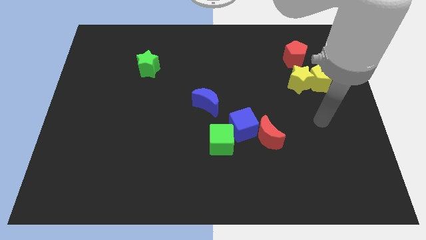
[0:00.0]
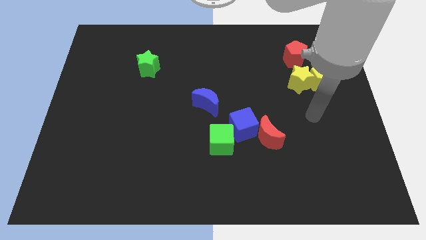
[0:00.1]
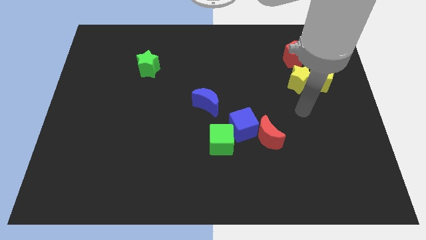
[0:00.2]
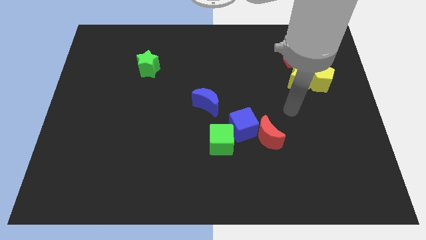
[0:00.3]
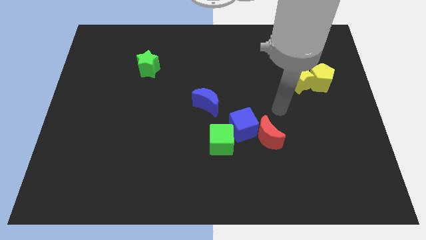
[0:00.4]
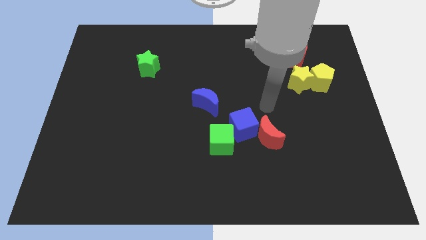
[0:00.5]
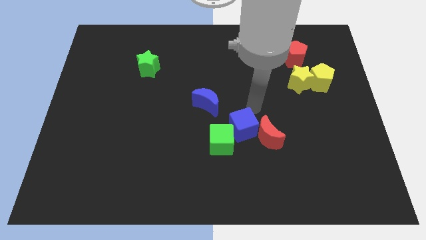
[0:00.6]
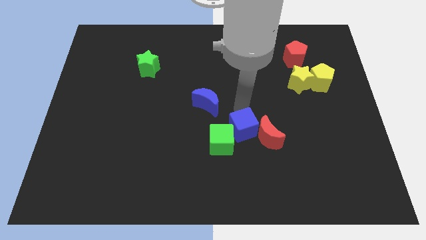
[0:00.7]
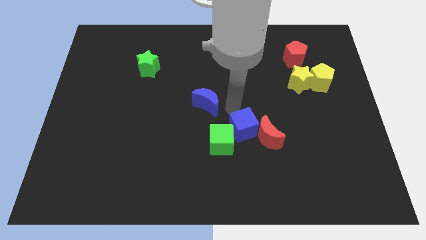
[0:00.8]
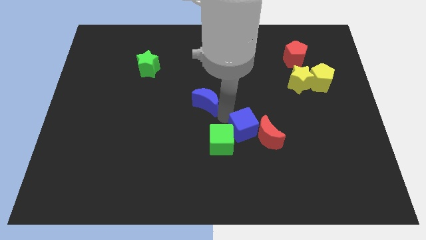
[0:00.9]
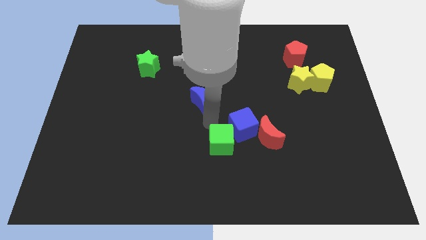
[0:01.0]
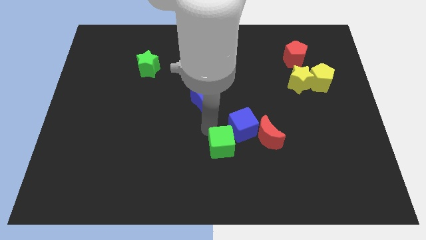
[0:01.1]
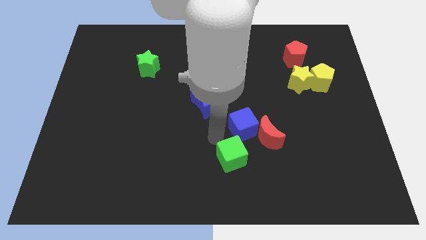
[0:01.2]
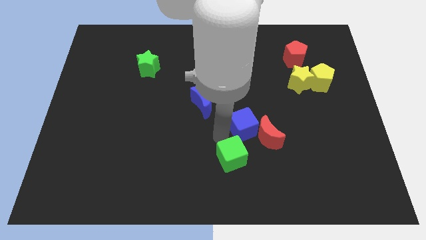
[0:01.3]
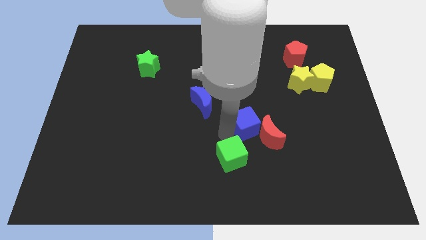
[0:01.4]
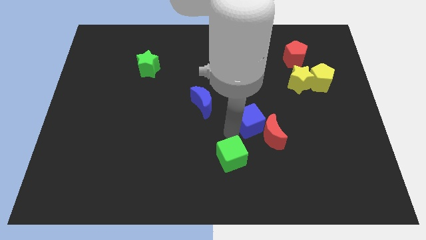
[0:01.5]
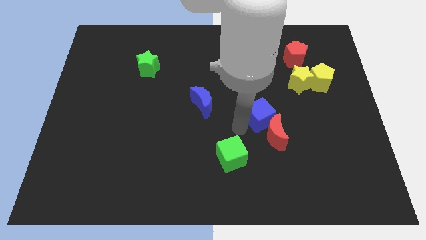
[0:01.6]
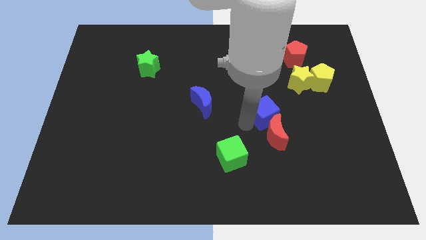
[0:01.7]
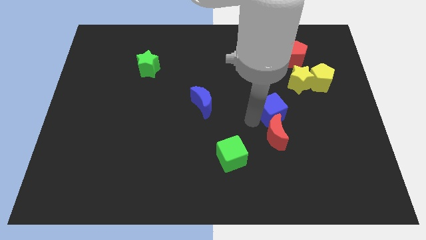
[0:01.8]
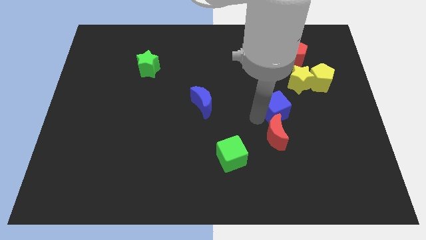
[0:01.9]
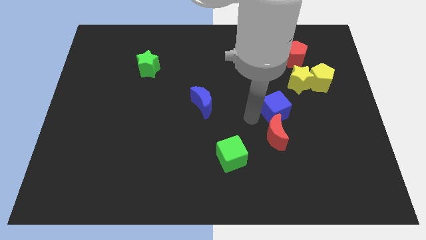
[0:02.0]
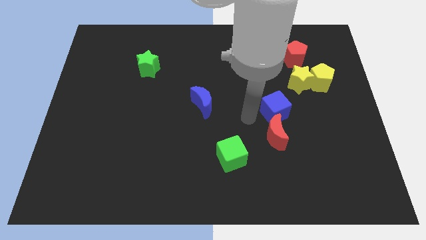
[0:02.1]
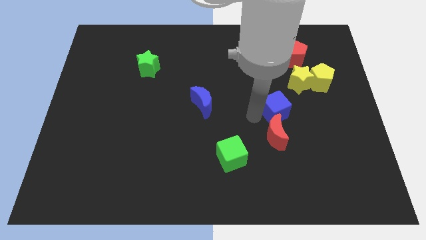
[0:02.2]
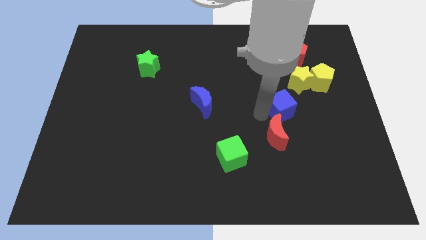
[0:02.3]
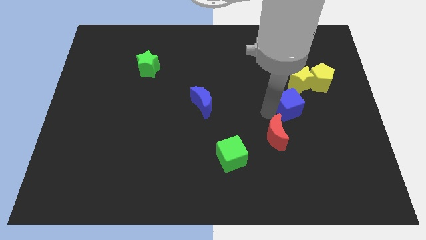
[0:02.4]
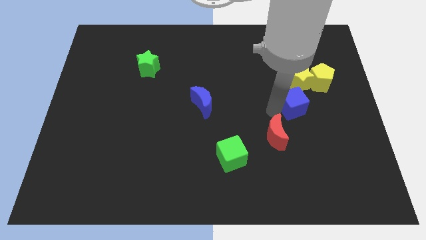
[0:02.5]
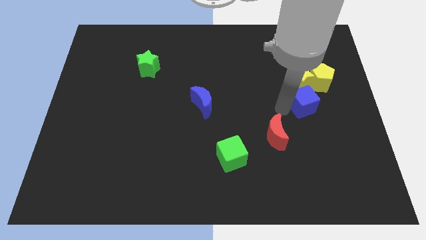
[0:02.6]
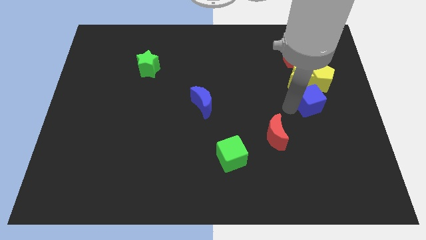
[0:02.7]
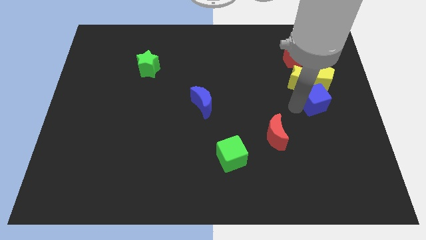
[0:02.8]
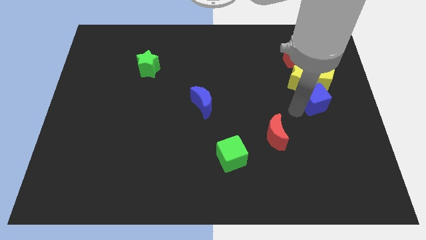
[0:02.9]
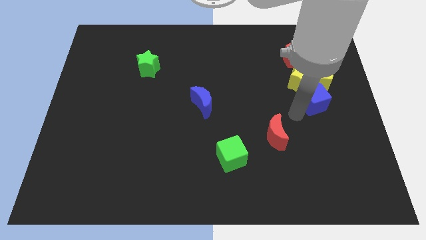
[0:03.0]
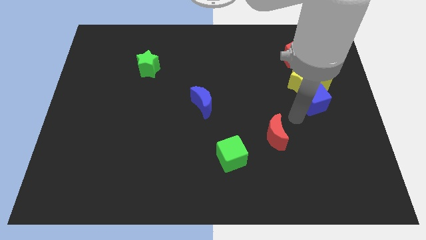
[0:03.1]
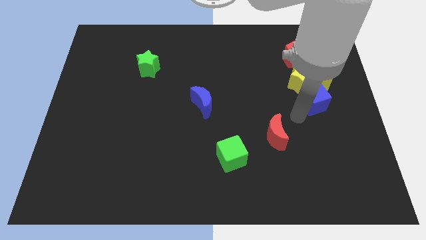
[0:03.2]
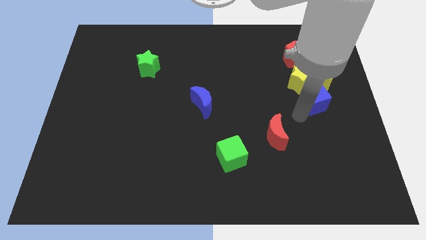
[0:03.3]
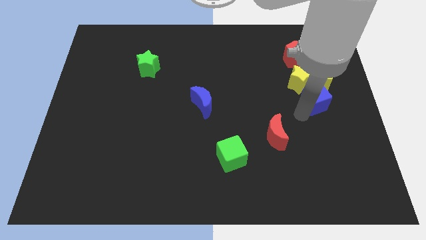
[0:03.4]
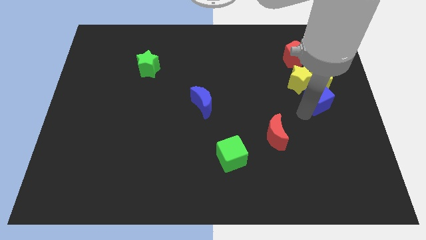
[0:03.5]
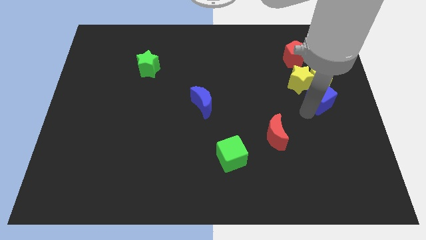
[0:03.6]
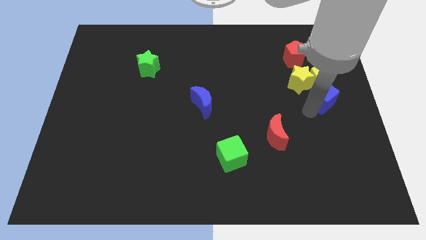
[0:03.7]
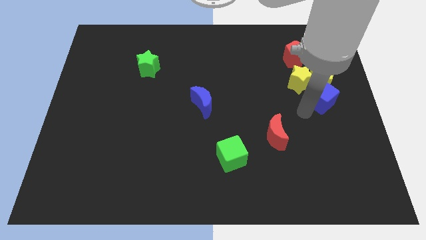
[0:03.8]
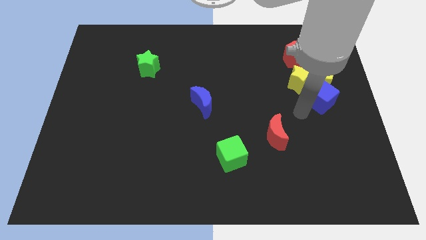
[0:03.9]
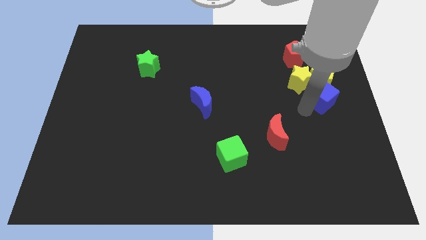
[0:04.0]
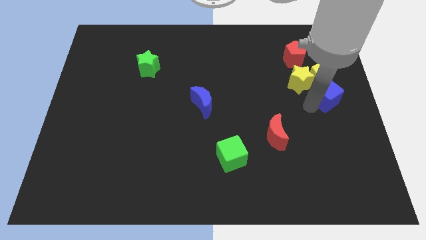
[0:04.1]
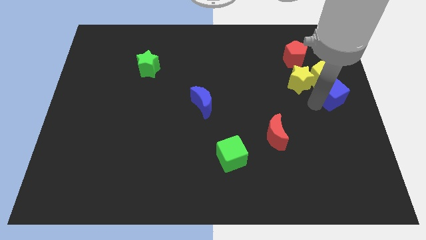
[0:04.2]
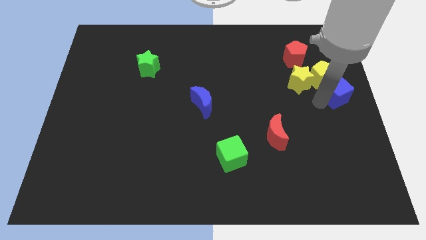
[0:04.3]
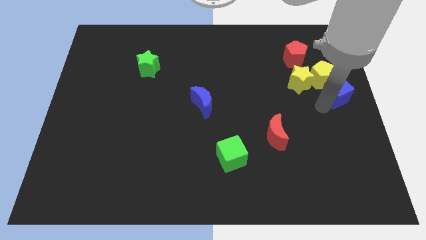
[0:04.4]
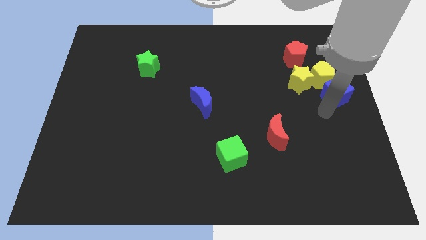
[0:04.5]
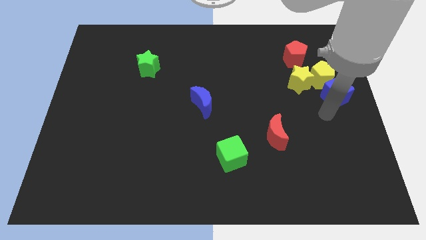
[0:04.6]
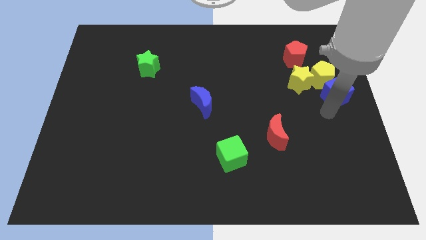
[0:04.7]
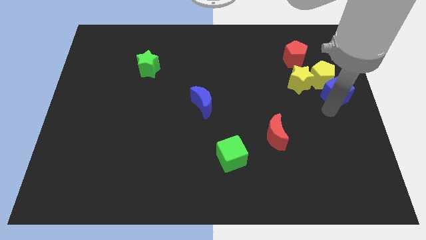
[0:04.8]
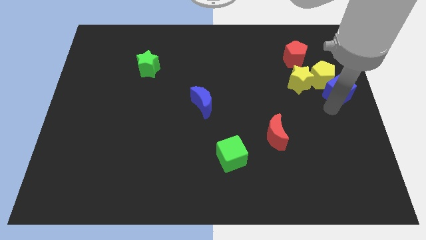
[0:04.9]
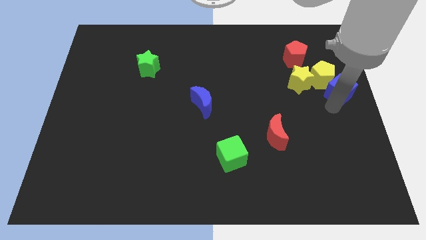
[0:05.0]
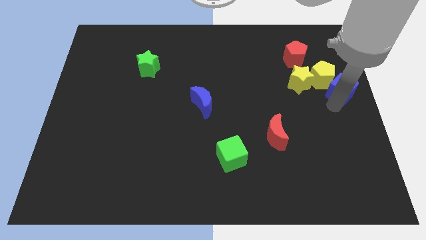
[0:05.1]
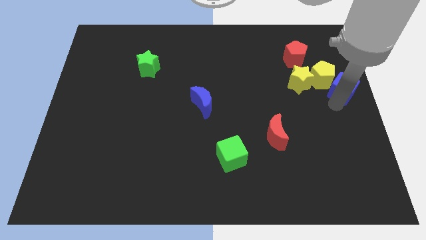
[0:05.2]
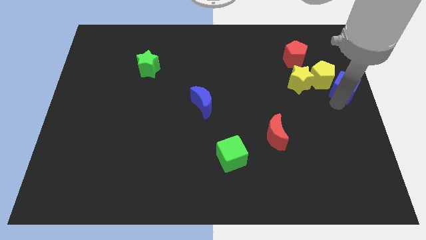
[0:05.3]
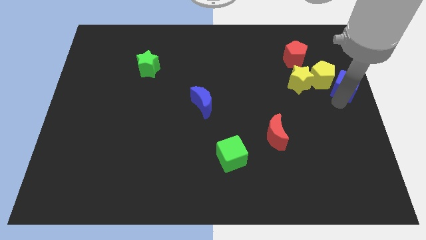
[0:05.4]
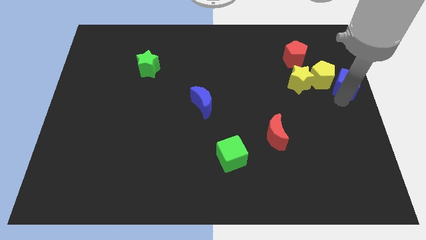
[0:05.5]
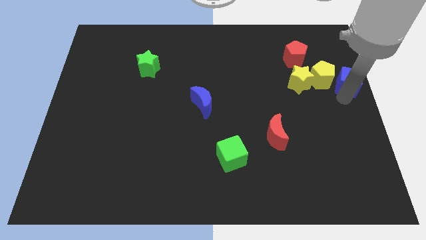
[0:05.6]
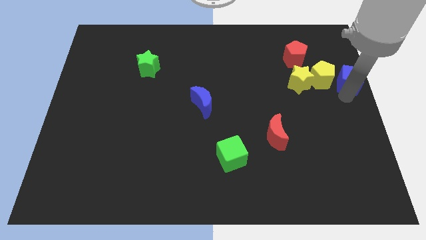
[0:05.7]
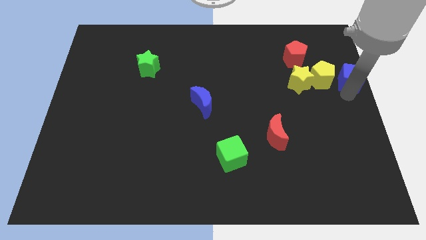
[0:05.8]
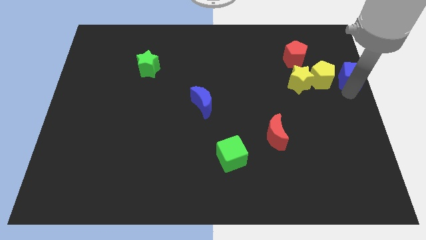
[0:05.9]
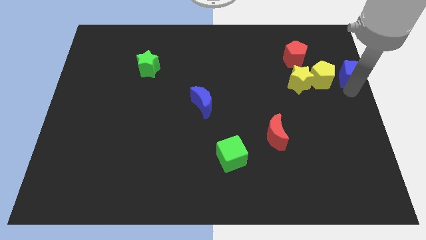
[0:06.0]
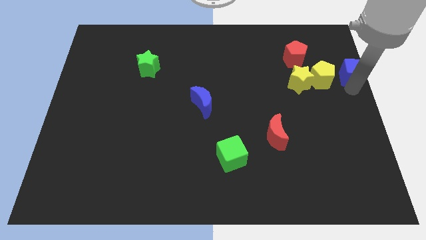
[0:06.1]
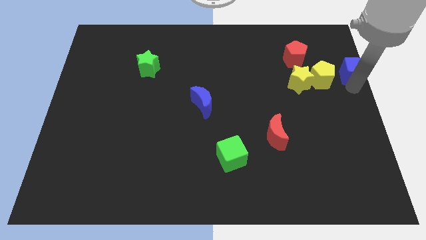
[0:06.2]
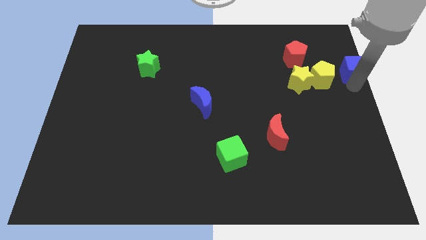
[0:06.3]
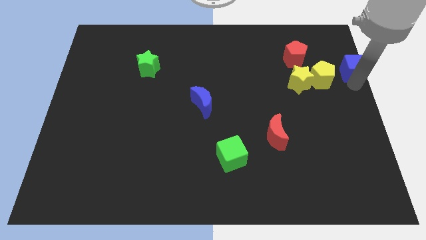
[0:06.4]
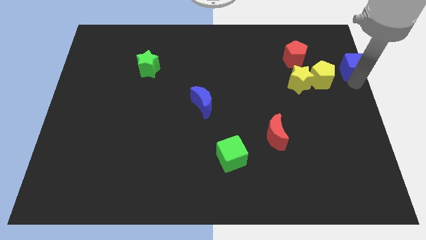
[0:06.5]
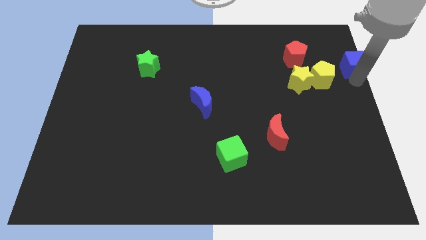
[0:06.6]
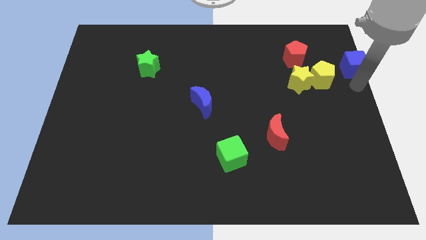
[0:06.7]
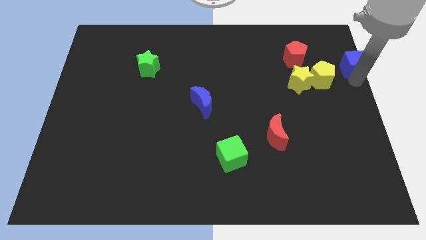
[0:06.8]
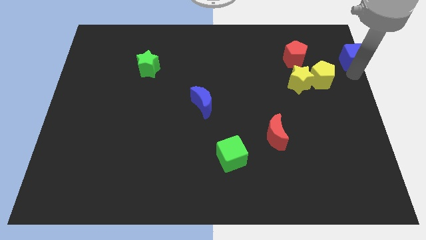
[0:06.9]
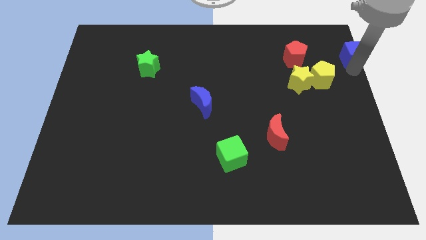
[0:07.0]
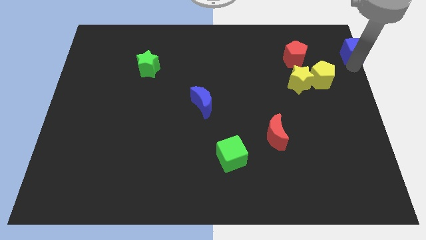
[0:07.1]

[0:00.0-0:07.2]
put the blue cube to the top right
